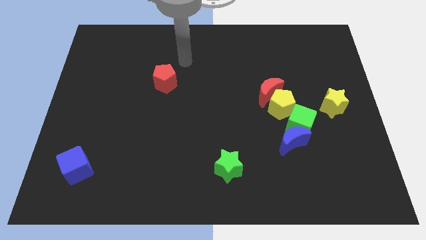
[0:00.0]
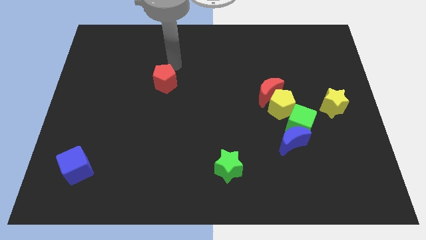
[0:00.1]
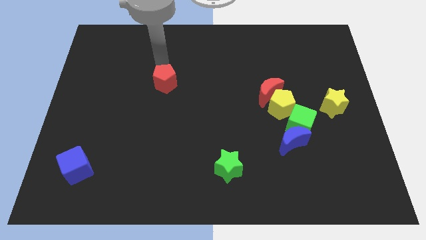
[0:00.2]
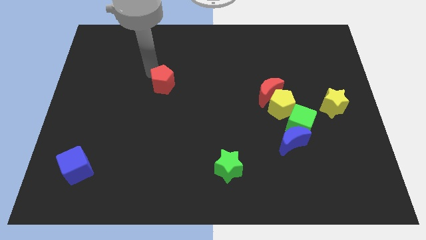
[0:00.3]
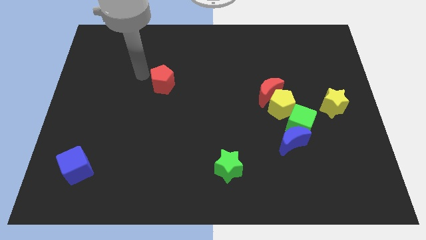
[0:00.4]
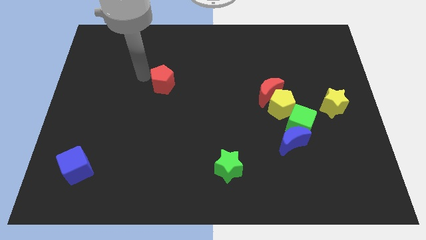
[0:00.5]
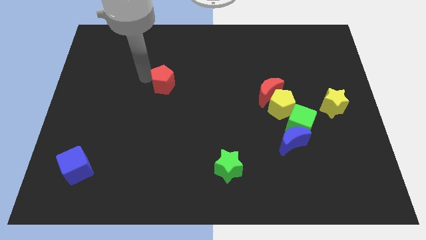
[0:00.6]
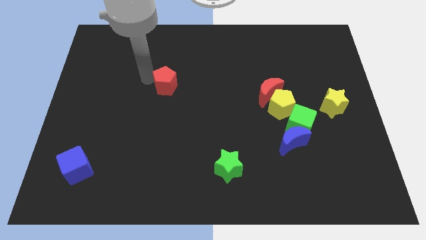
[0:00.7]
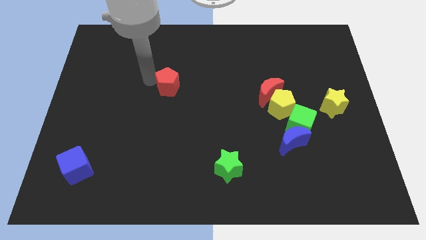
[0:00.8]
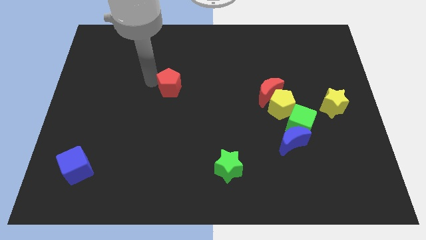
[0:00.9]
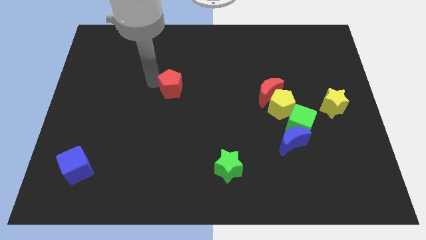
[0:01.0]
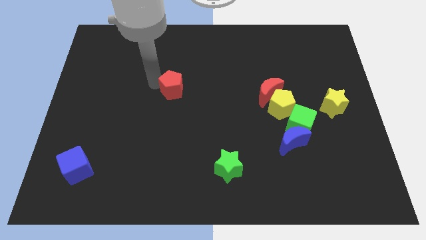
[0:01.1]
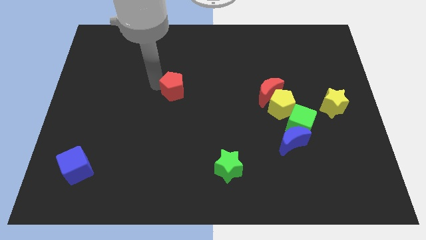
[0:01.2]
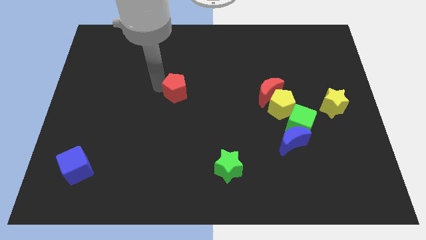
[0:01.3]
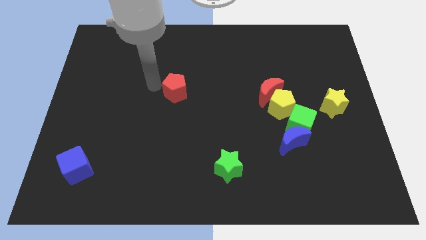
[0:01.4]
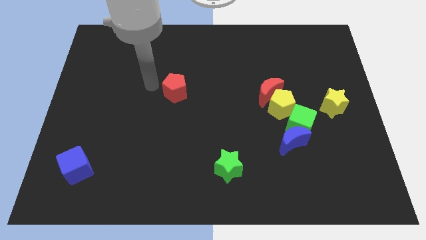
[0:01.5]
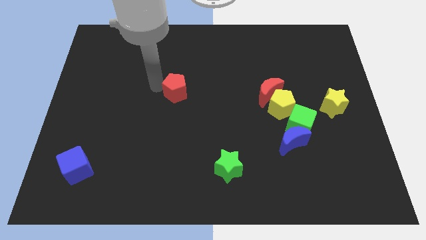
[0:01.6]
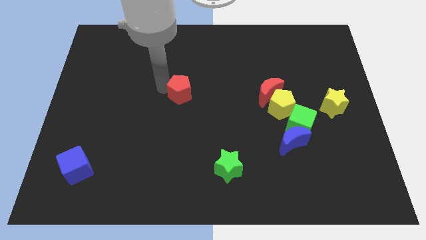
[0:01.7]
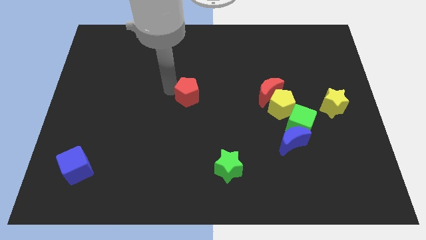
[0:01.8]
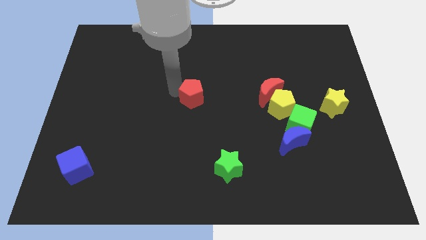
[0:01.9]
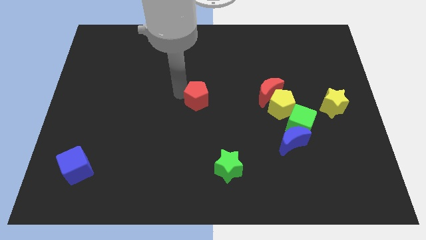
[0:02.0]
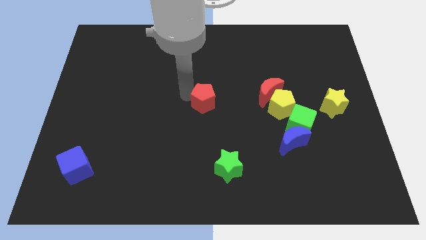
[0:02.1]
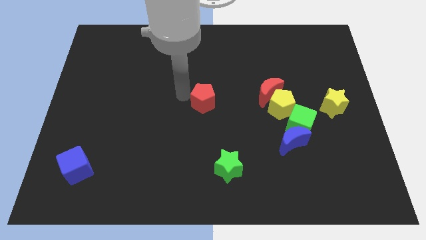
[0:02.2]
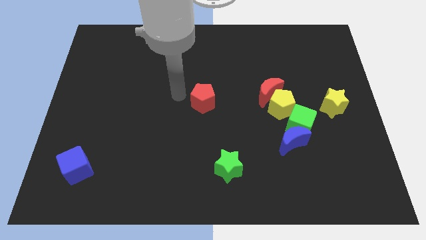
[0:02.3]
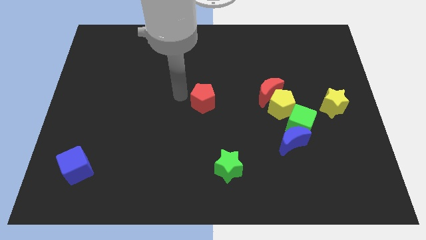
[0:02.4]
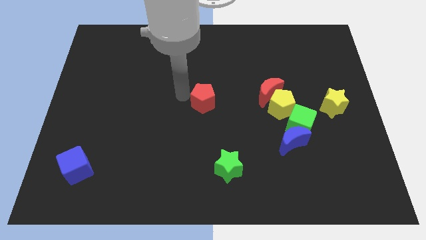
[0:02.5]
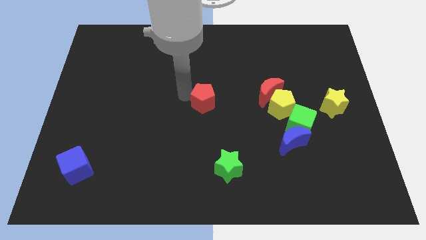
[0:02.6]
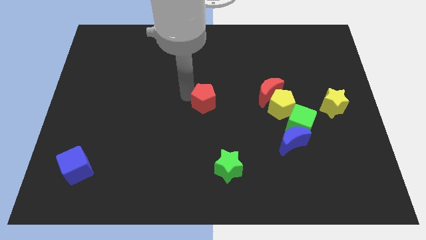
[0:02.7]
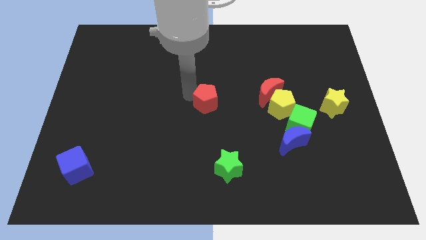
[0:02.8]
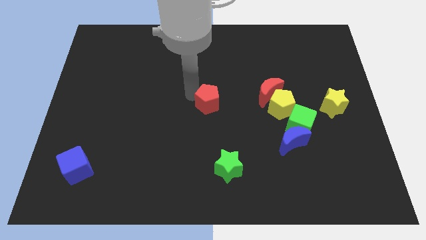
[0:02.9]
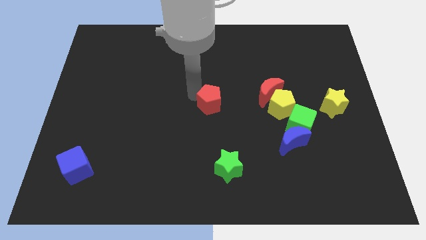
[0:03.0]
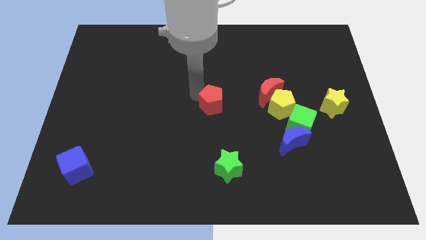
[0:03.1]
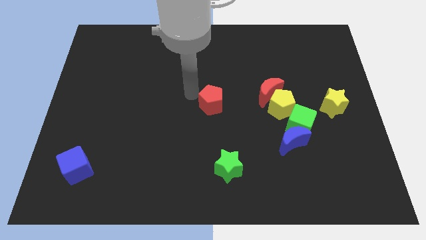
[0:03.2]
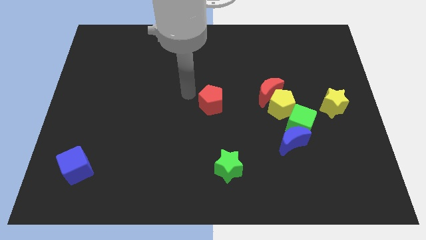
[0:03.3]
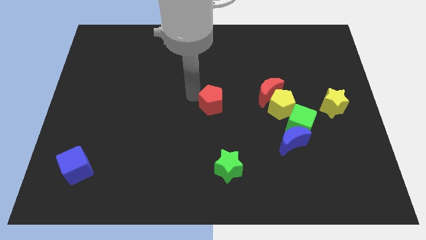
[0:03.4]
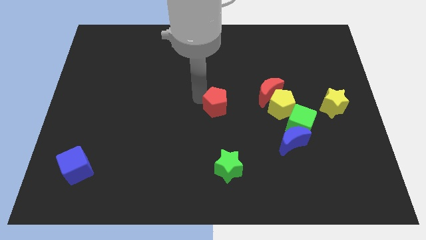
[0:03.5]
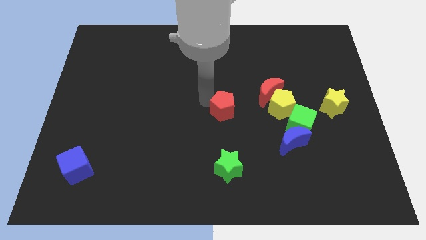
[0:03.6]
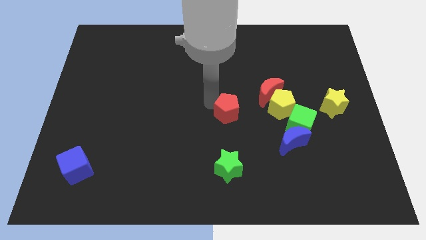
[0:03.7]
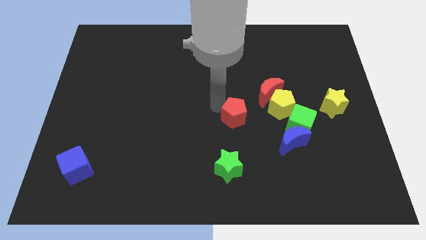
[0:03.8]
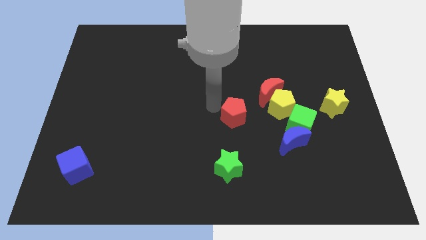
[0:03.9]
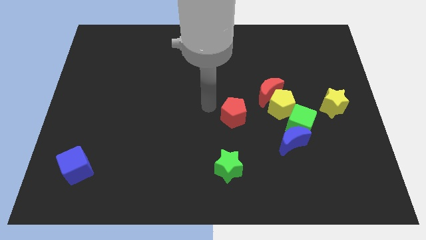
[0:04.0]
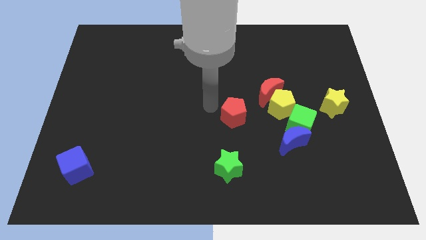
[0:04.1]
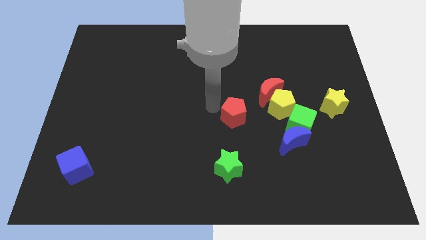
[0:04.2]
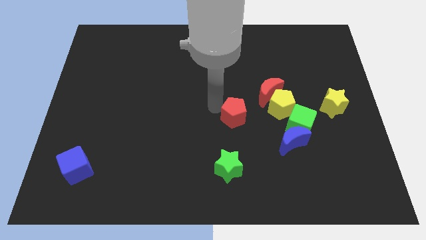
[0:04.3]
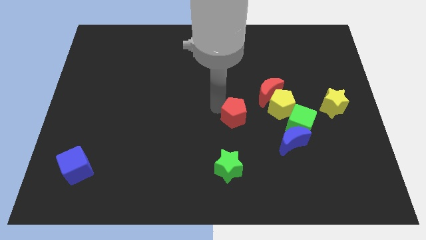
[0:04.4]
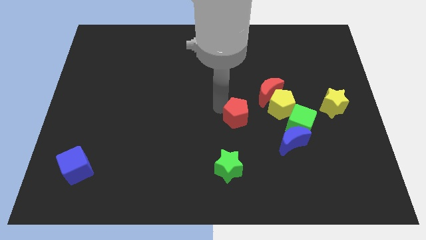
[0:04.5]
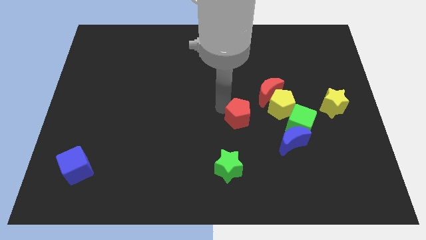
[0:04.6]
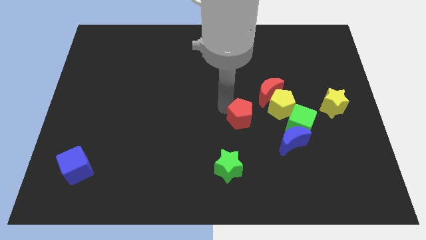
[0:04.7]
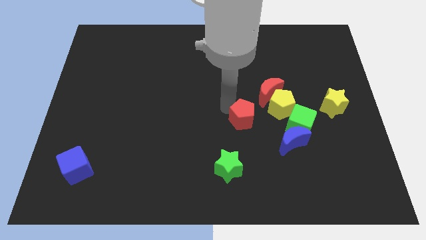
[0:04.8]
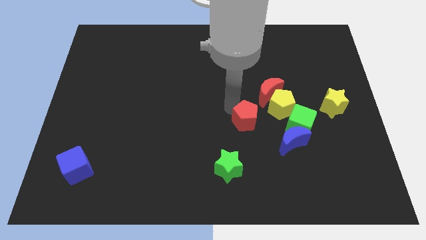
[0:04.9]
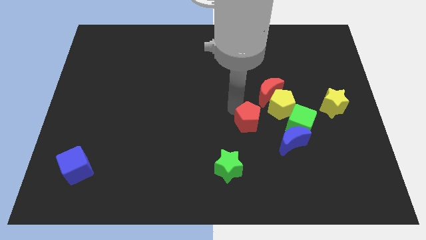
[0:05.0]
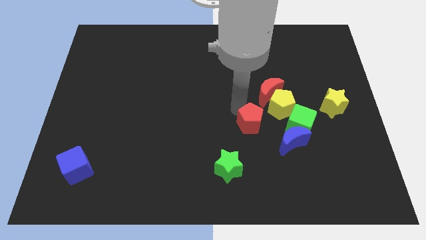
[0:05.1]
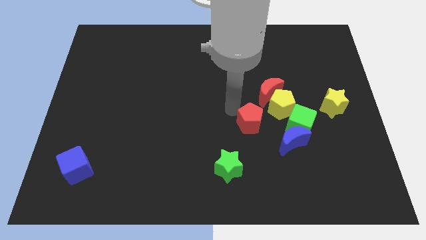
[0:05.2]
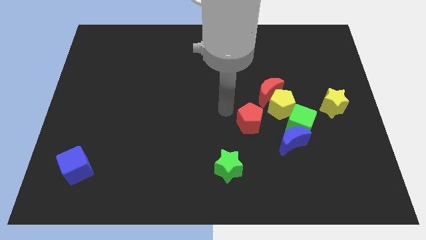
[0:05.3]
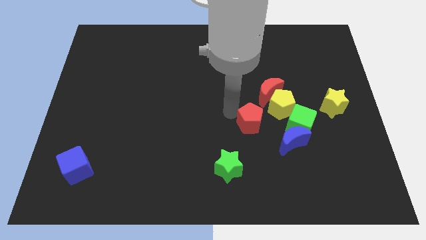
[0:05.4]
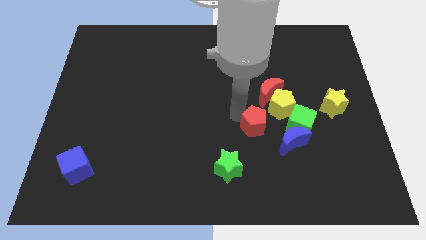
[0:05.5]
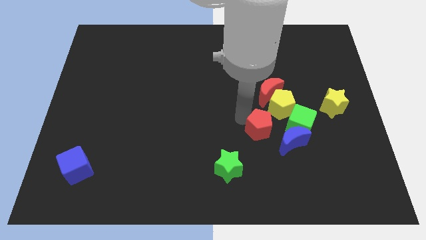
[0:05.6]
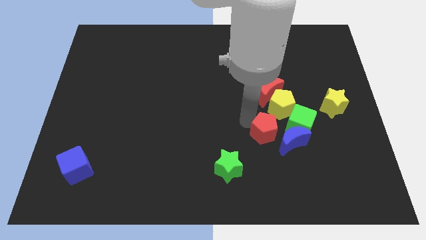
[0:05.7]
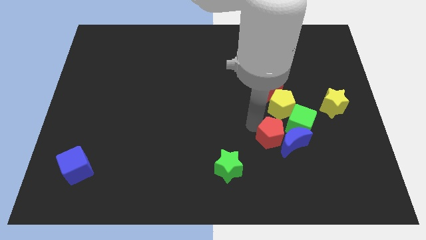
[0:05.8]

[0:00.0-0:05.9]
slide the red pentagon towards the blue moon

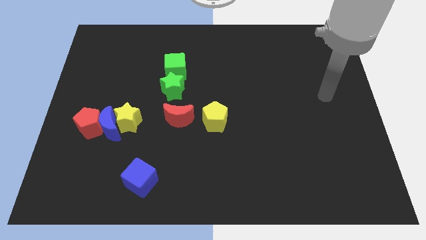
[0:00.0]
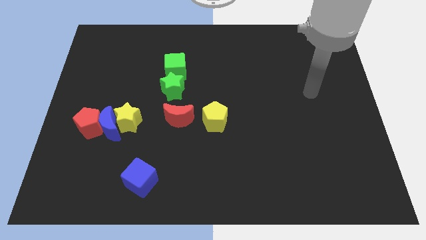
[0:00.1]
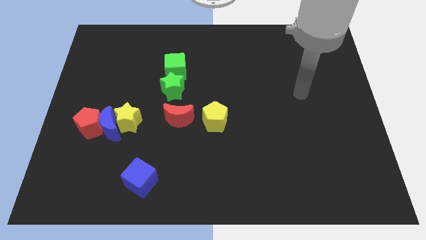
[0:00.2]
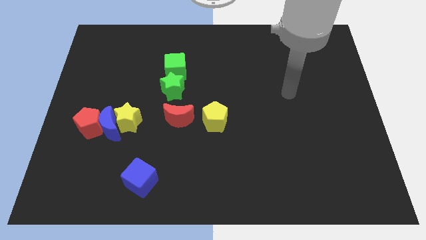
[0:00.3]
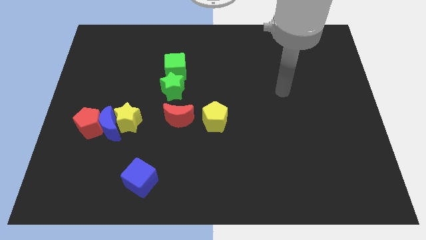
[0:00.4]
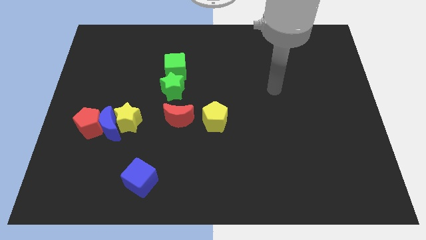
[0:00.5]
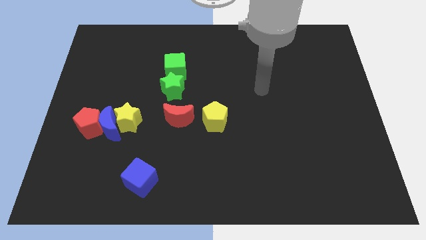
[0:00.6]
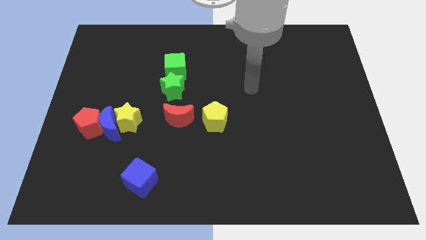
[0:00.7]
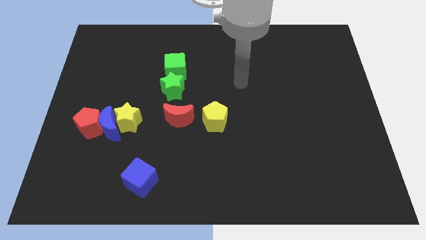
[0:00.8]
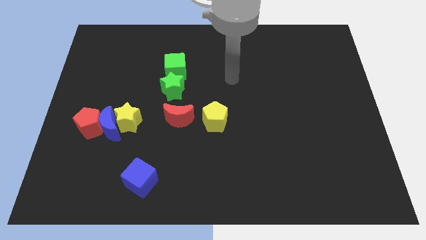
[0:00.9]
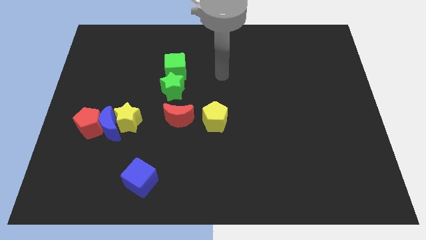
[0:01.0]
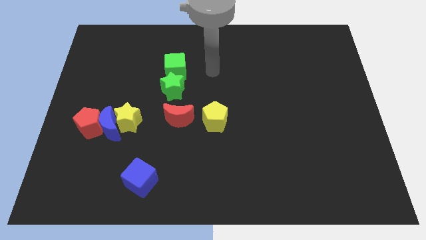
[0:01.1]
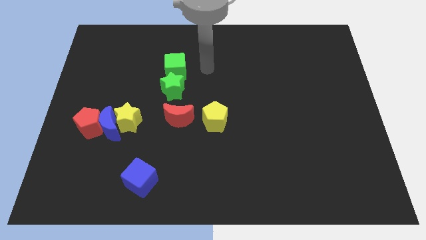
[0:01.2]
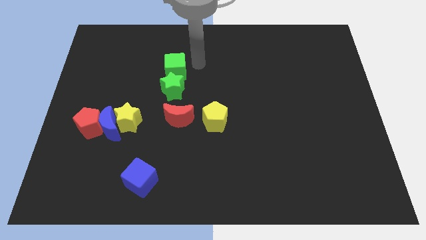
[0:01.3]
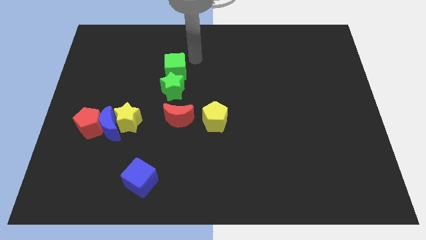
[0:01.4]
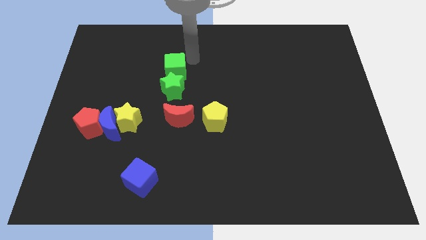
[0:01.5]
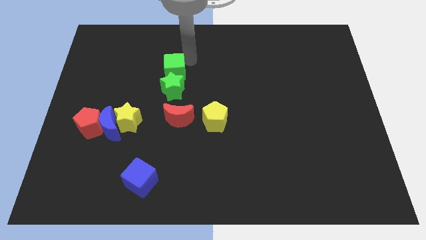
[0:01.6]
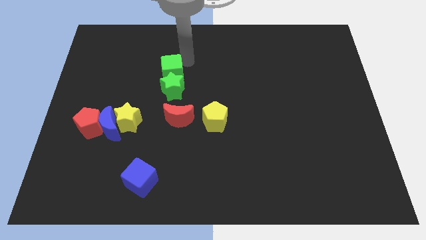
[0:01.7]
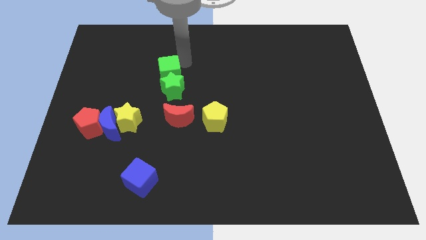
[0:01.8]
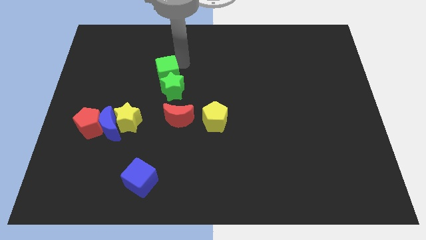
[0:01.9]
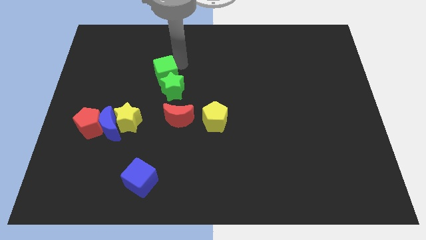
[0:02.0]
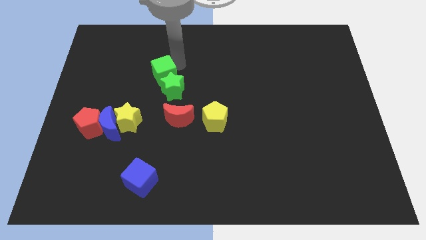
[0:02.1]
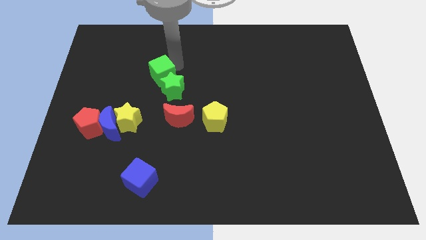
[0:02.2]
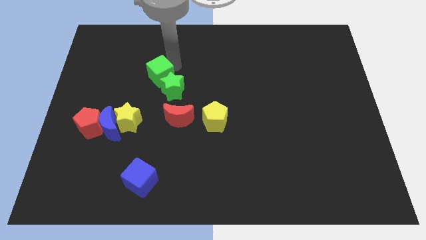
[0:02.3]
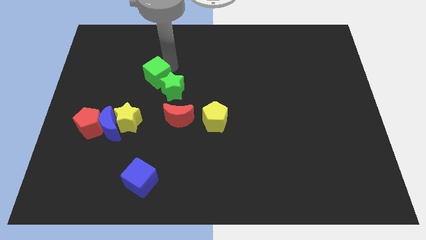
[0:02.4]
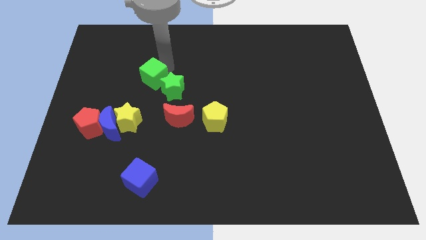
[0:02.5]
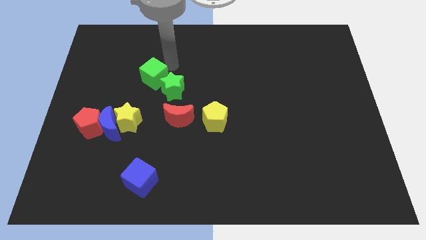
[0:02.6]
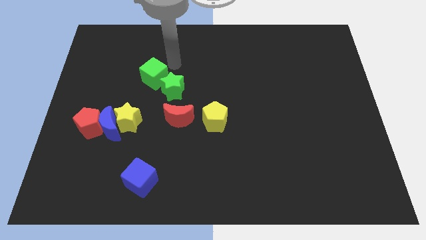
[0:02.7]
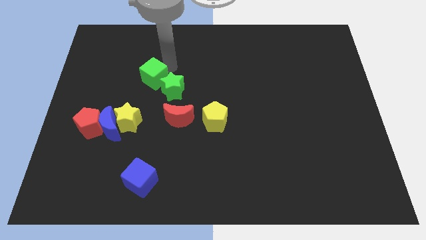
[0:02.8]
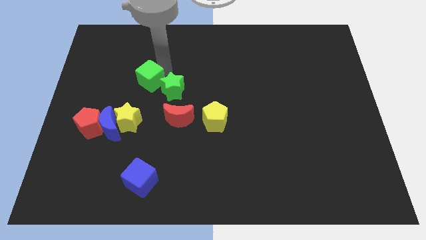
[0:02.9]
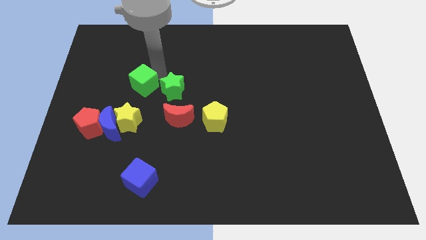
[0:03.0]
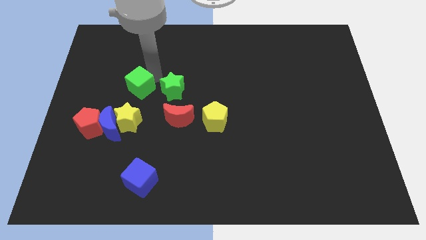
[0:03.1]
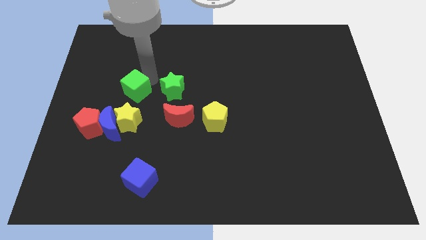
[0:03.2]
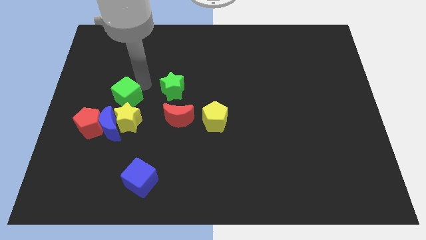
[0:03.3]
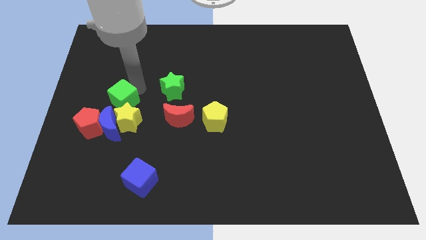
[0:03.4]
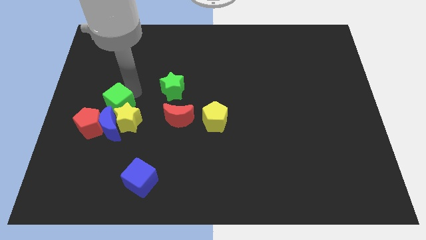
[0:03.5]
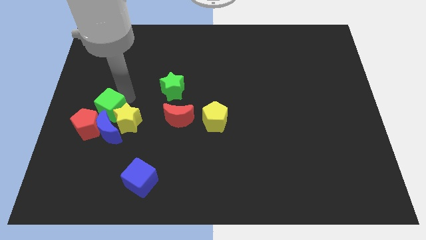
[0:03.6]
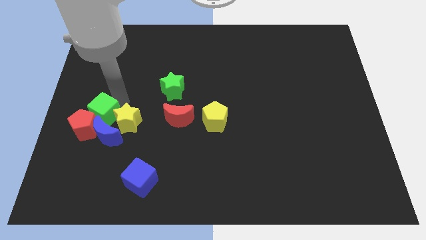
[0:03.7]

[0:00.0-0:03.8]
put the green cube close to the red pentagon
